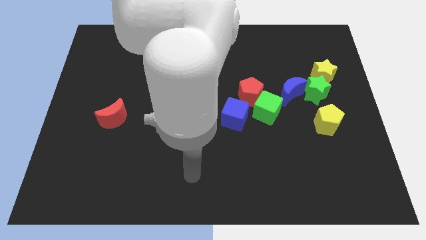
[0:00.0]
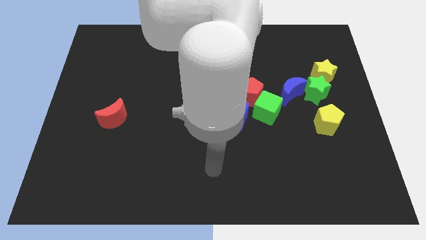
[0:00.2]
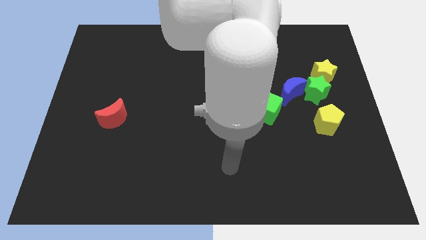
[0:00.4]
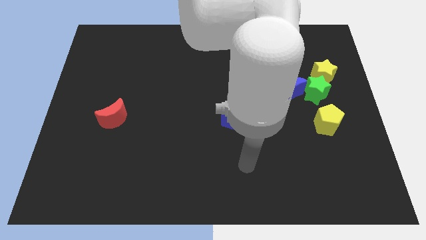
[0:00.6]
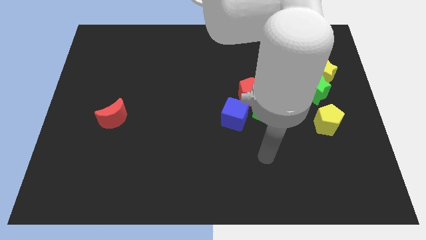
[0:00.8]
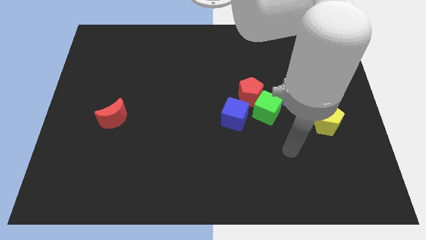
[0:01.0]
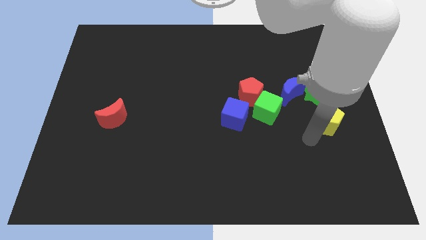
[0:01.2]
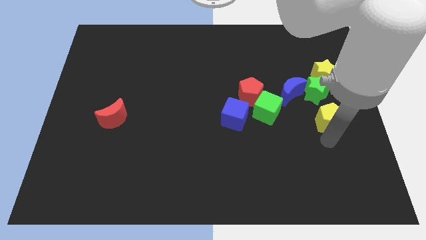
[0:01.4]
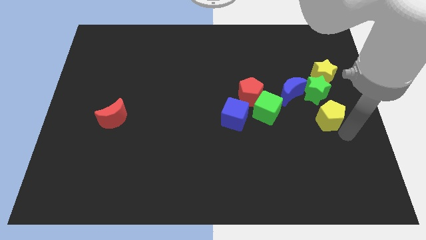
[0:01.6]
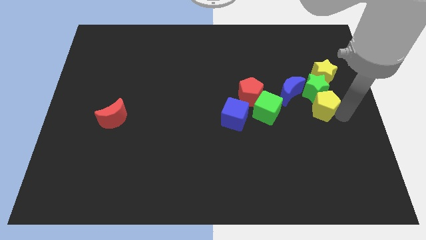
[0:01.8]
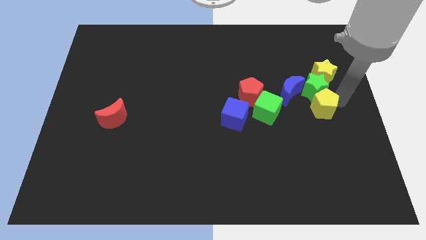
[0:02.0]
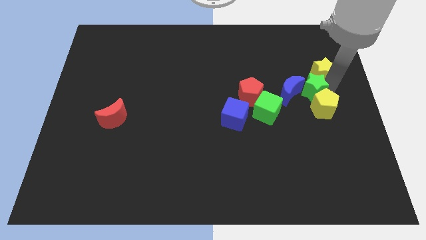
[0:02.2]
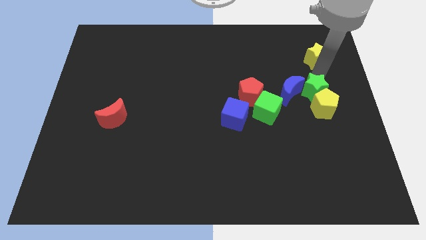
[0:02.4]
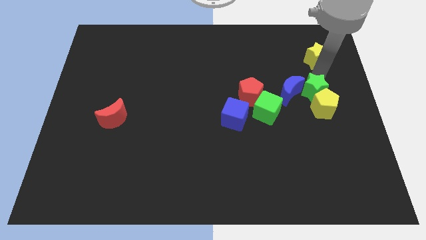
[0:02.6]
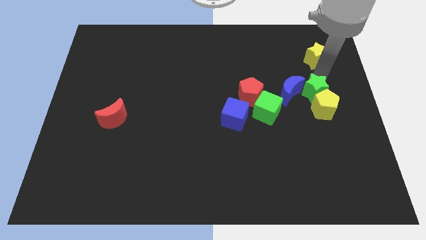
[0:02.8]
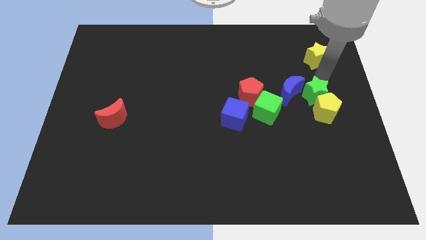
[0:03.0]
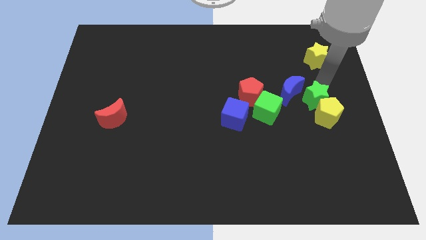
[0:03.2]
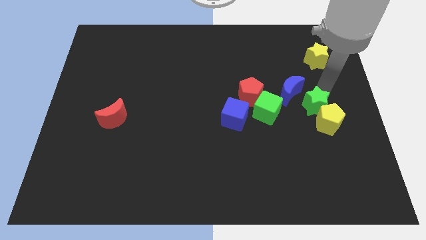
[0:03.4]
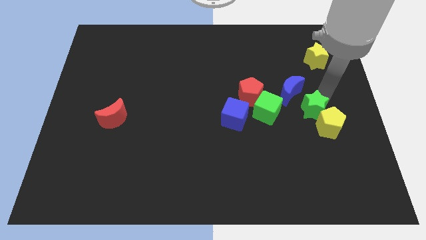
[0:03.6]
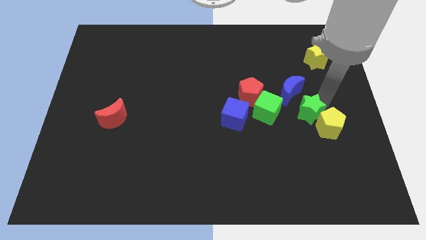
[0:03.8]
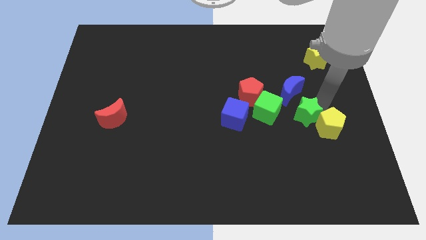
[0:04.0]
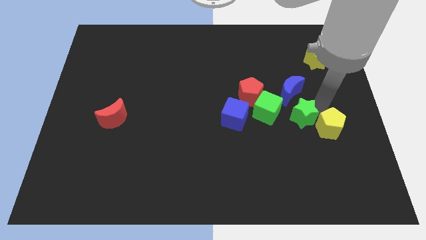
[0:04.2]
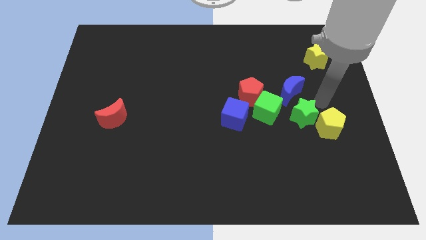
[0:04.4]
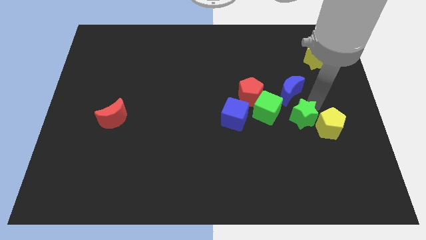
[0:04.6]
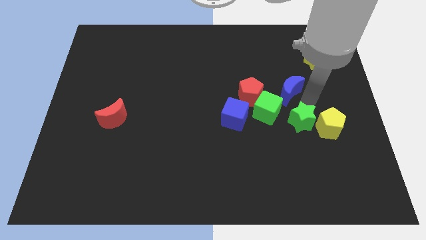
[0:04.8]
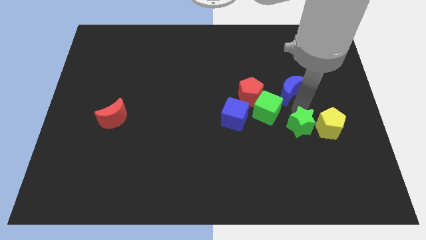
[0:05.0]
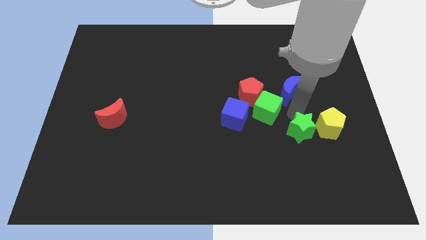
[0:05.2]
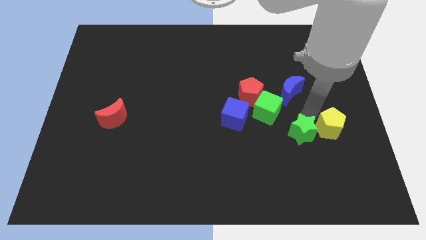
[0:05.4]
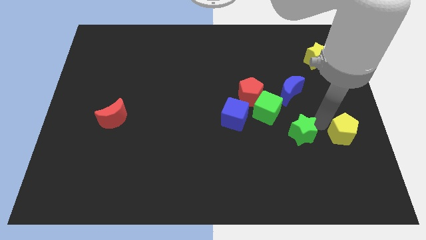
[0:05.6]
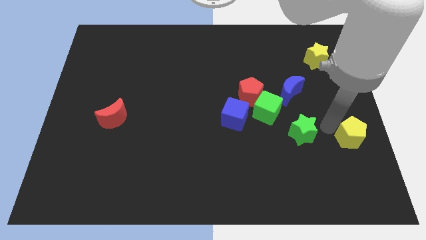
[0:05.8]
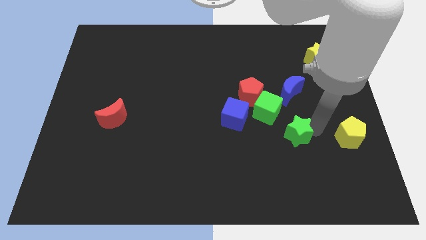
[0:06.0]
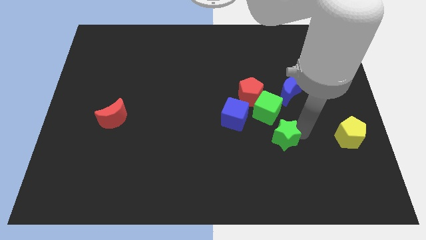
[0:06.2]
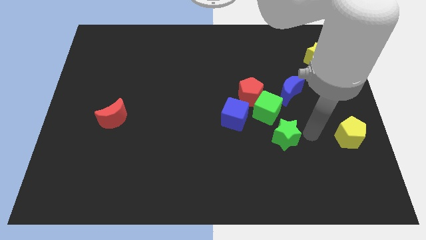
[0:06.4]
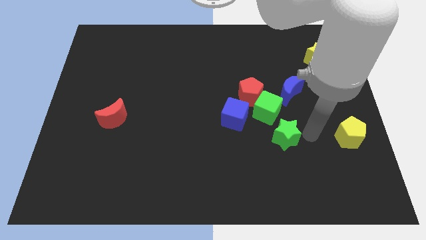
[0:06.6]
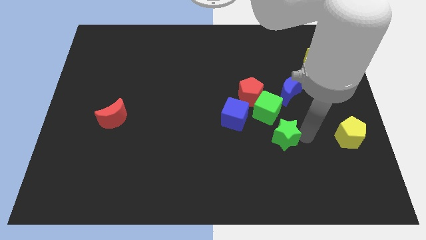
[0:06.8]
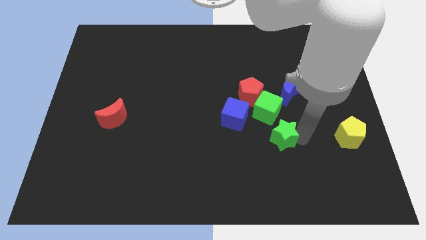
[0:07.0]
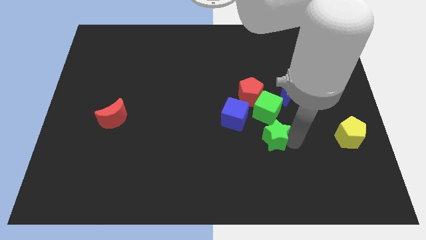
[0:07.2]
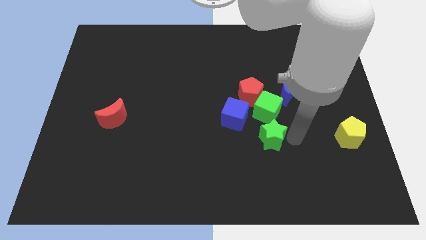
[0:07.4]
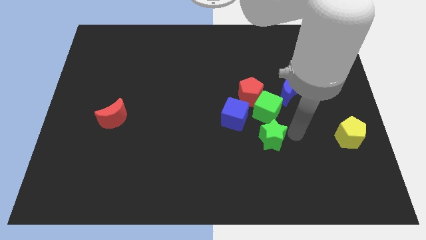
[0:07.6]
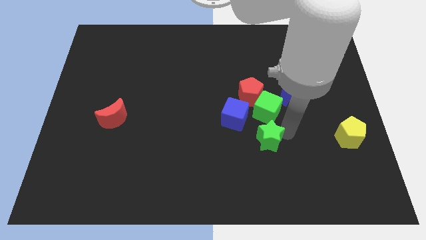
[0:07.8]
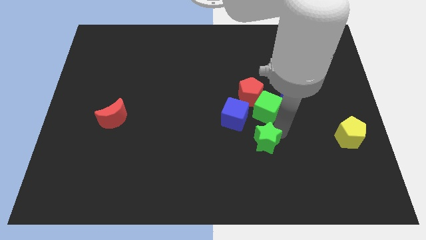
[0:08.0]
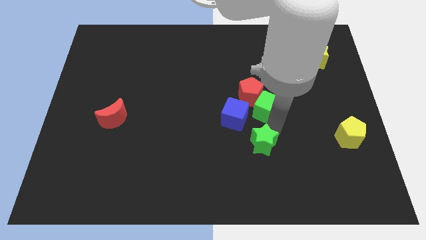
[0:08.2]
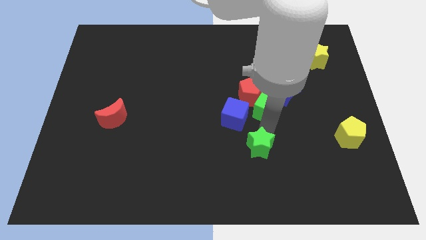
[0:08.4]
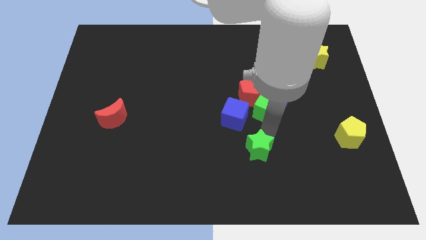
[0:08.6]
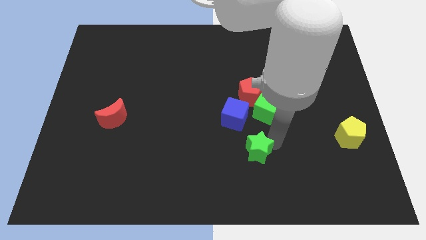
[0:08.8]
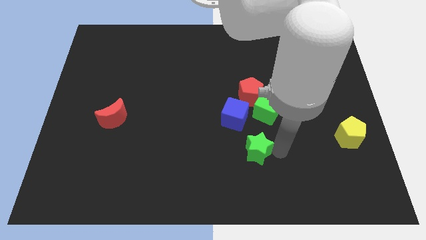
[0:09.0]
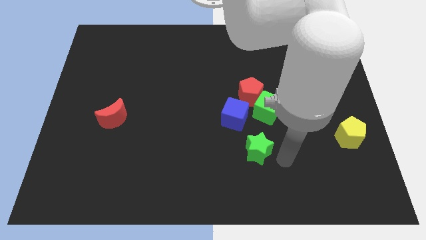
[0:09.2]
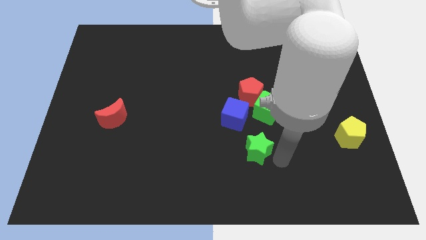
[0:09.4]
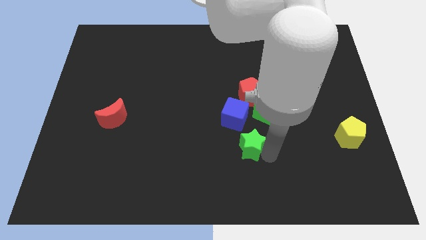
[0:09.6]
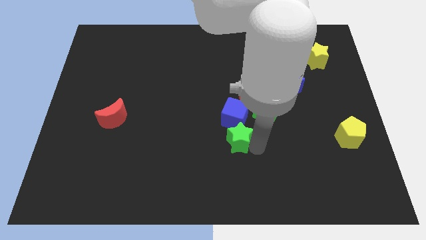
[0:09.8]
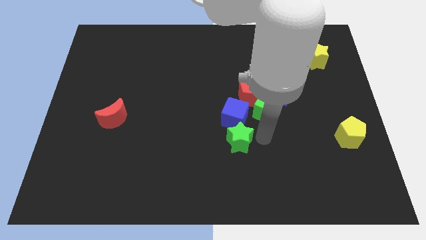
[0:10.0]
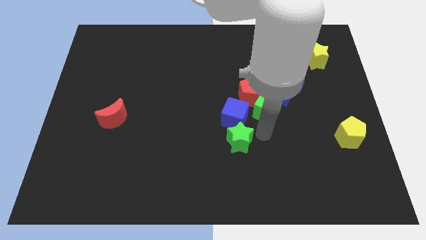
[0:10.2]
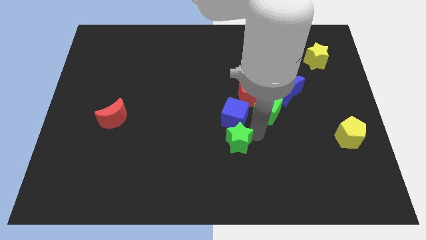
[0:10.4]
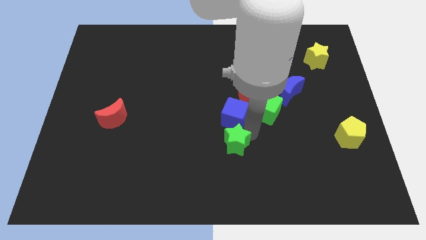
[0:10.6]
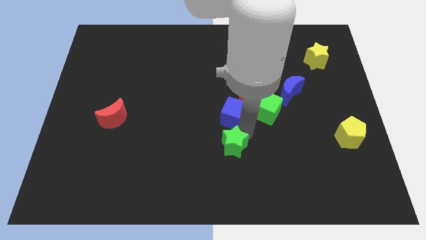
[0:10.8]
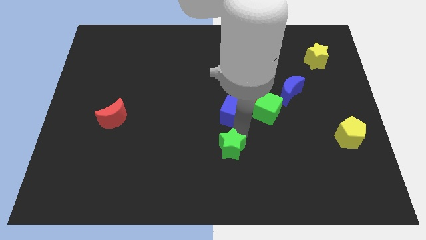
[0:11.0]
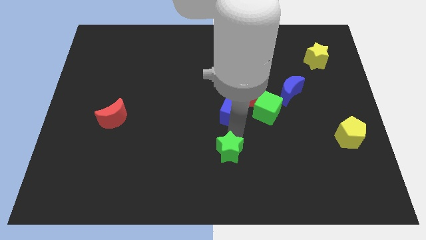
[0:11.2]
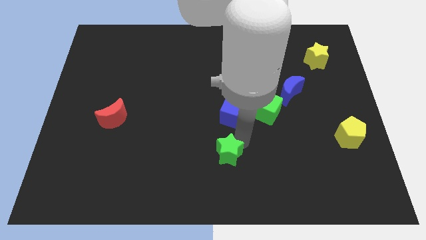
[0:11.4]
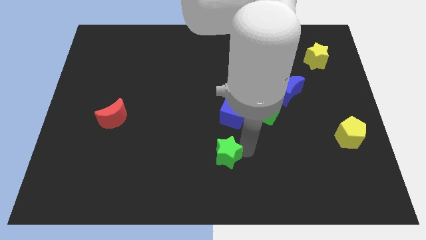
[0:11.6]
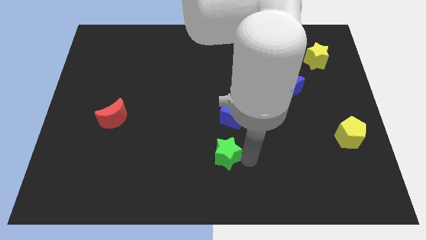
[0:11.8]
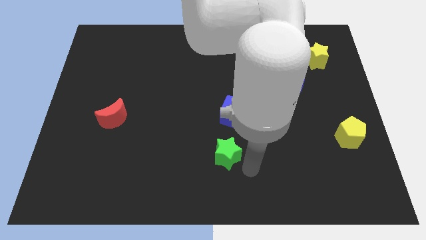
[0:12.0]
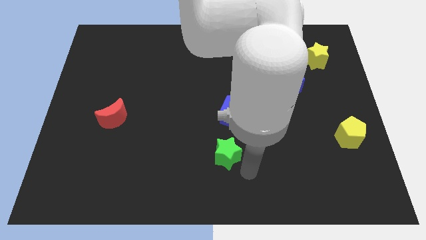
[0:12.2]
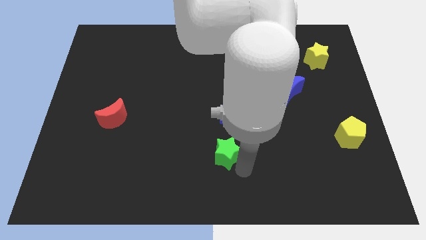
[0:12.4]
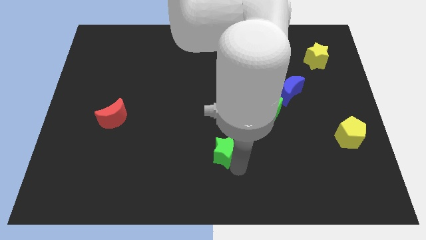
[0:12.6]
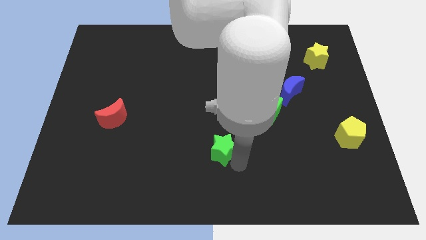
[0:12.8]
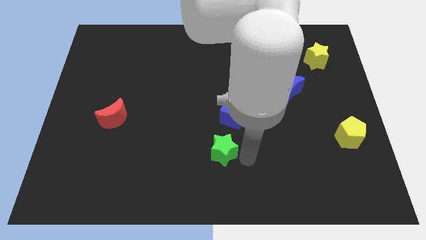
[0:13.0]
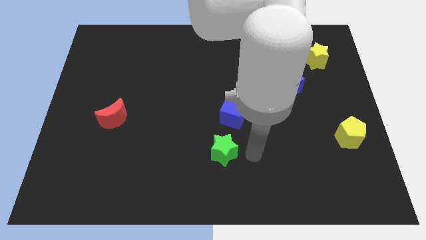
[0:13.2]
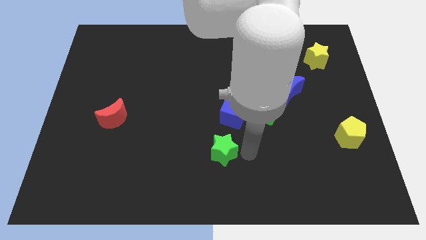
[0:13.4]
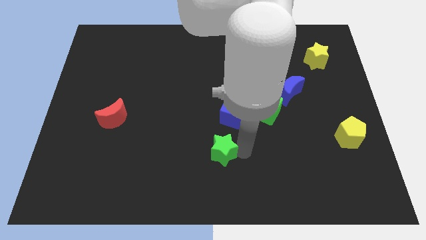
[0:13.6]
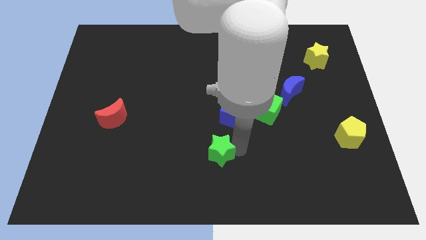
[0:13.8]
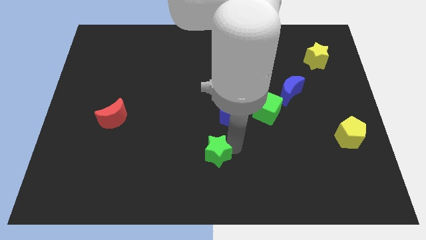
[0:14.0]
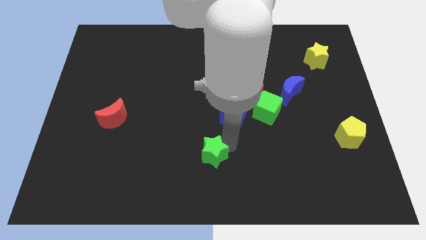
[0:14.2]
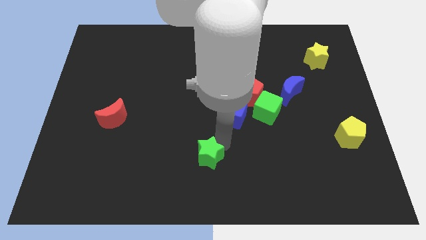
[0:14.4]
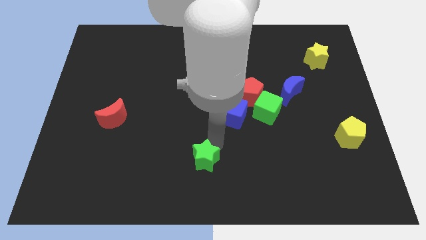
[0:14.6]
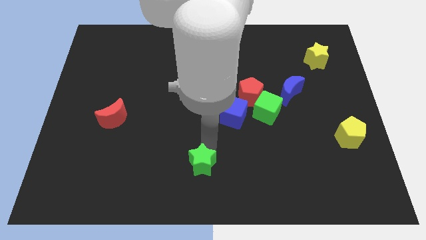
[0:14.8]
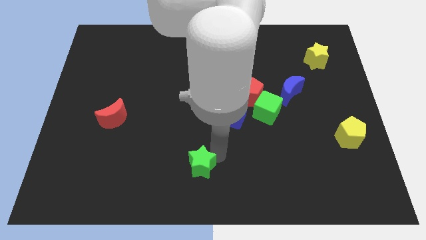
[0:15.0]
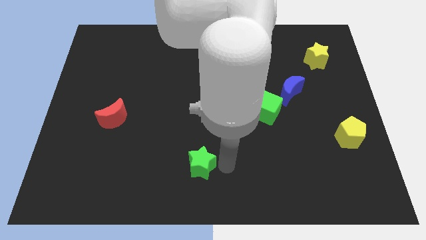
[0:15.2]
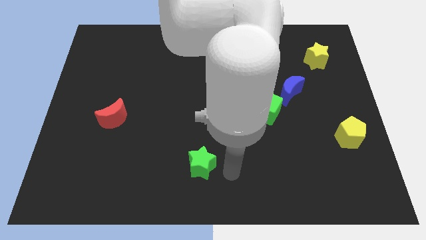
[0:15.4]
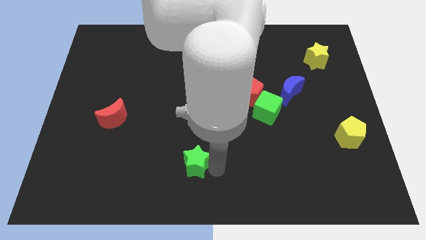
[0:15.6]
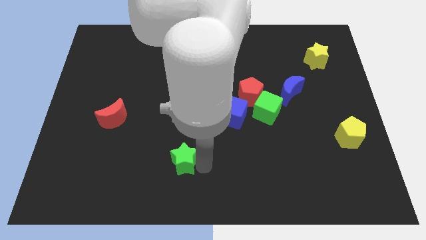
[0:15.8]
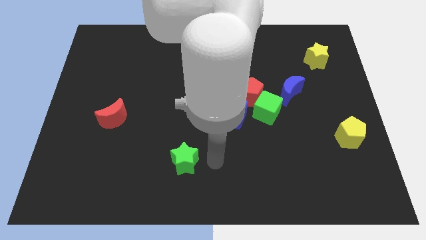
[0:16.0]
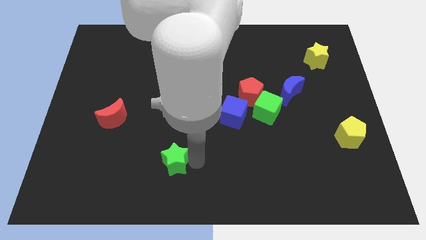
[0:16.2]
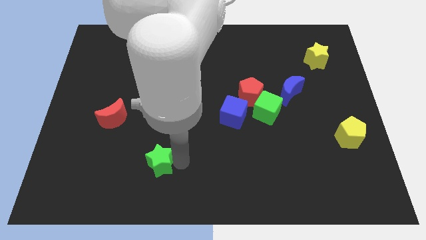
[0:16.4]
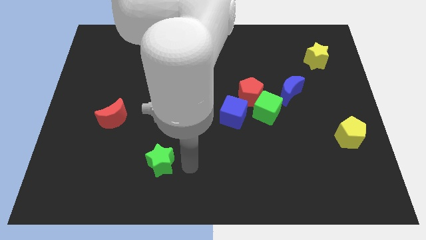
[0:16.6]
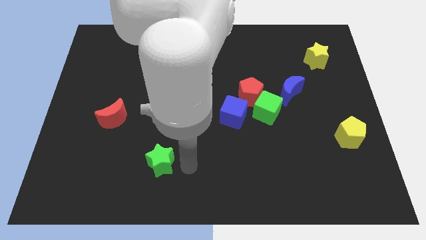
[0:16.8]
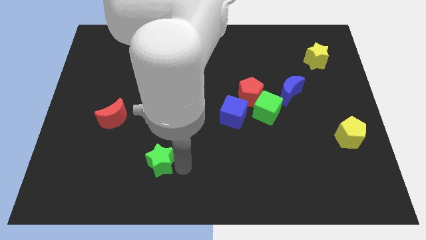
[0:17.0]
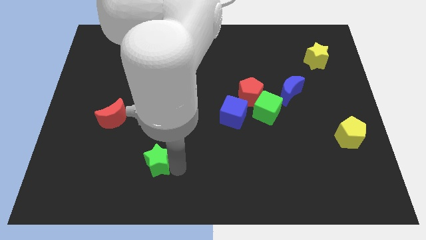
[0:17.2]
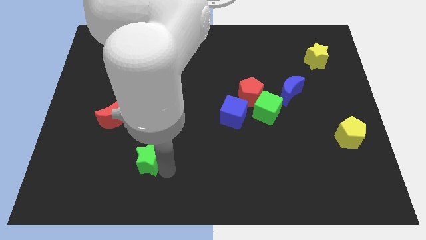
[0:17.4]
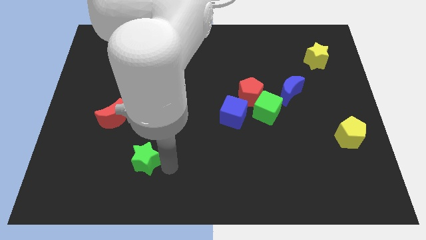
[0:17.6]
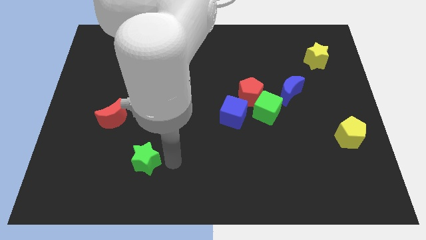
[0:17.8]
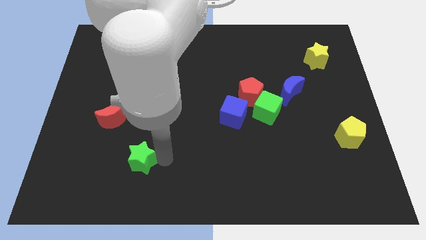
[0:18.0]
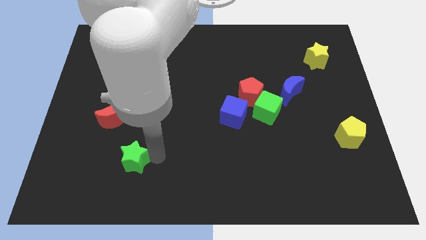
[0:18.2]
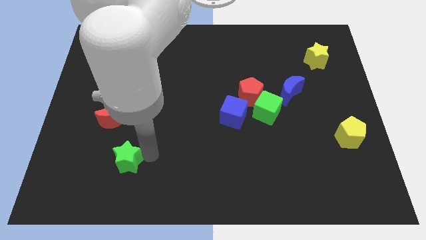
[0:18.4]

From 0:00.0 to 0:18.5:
put the green star below the red moon
